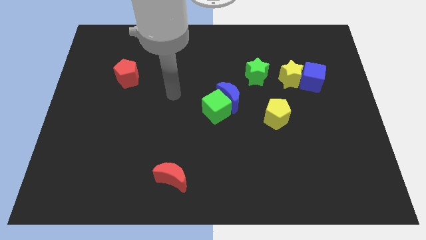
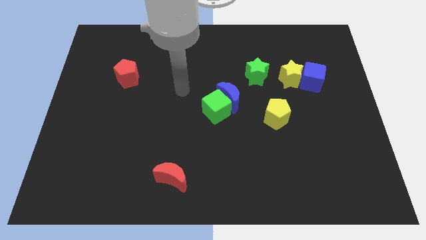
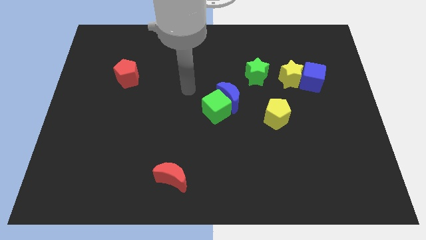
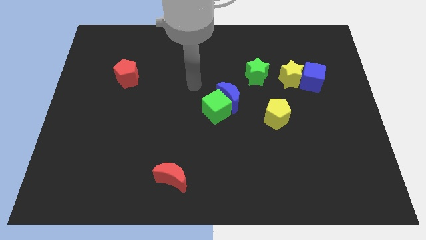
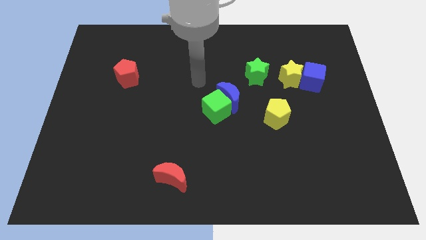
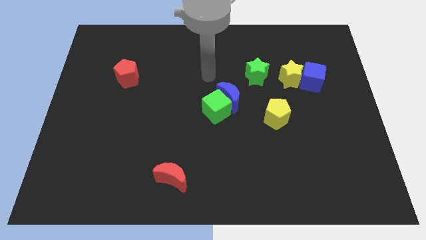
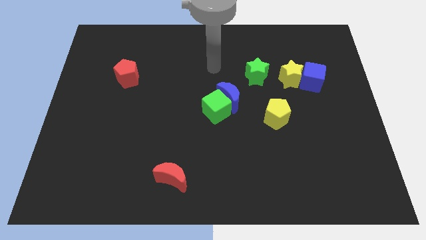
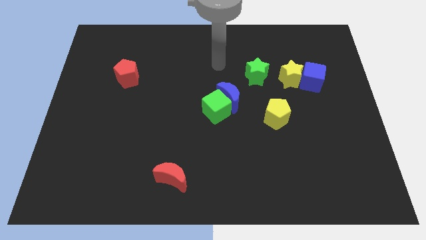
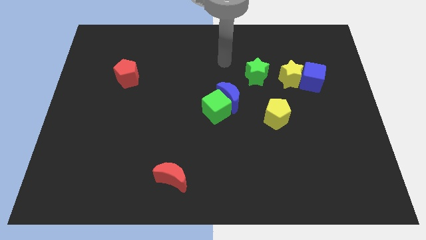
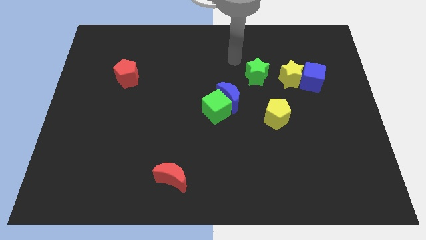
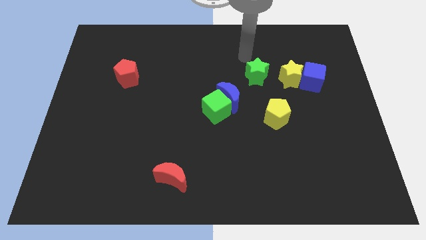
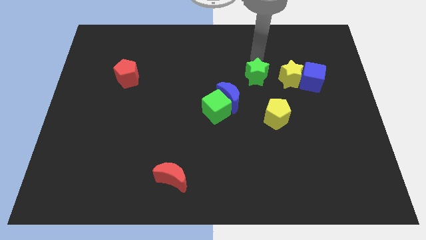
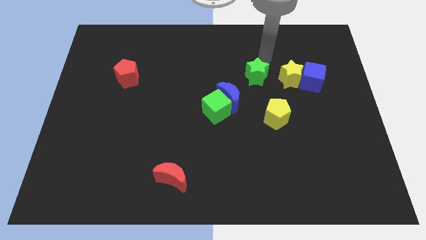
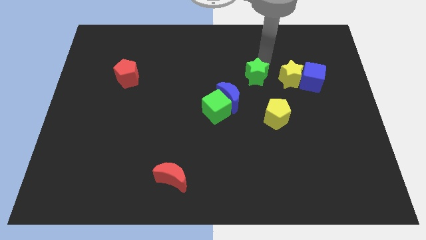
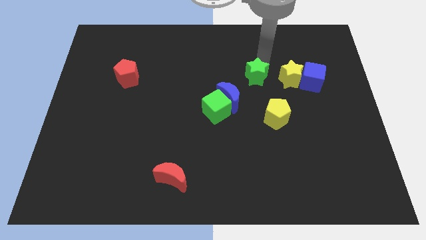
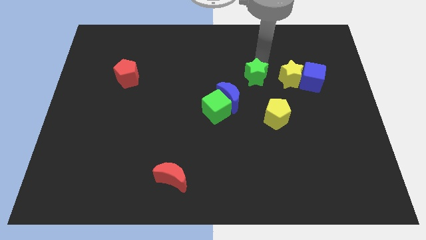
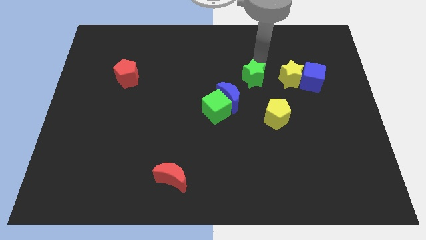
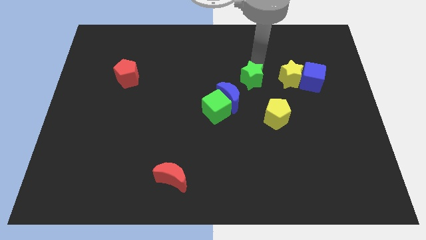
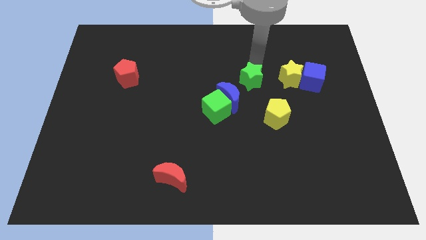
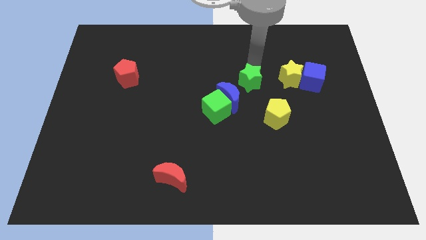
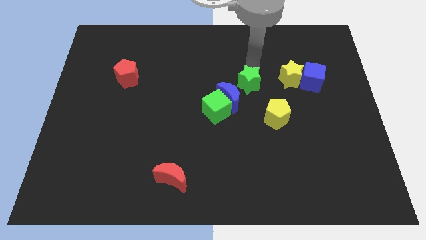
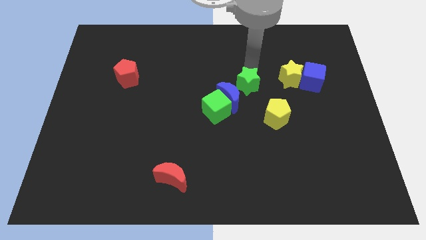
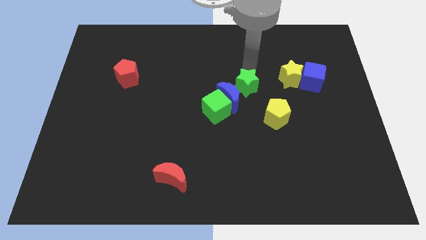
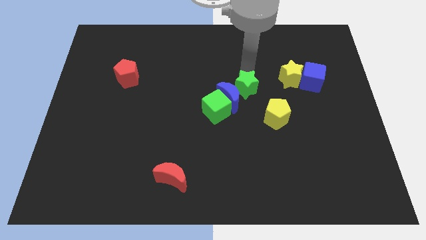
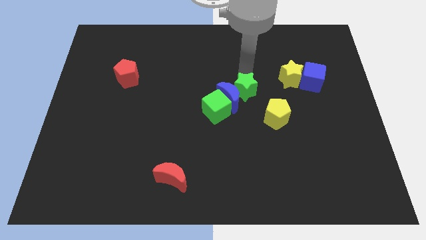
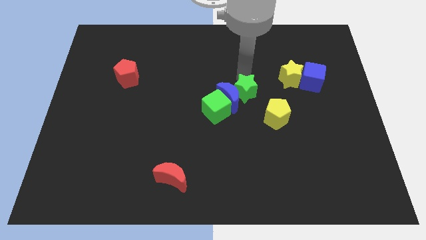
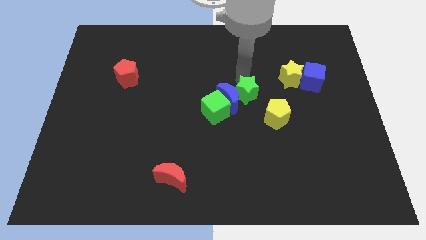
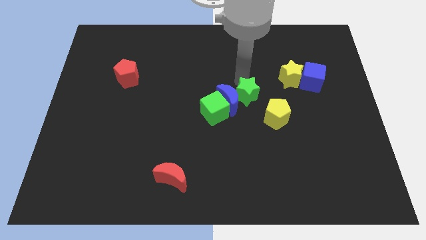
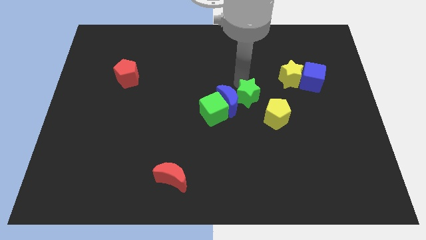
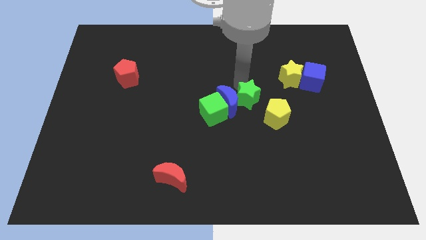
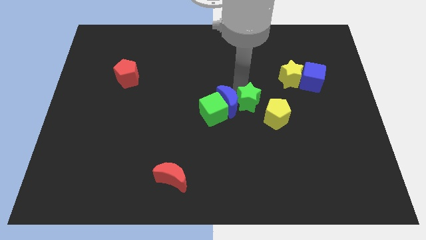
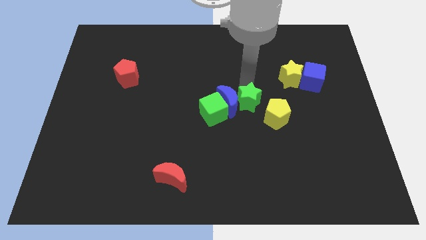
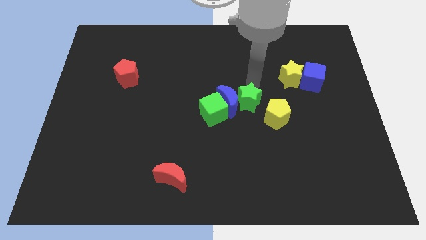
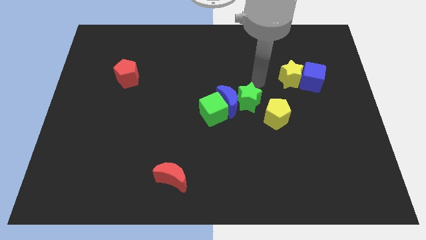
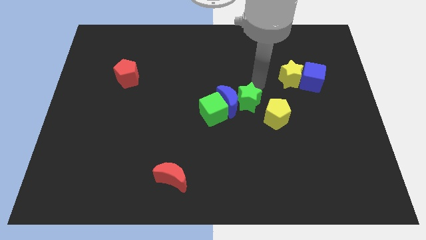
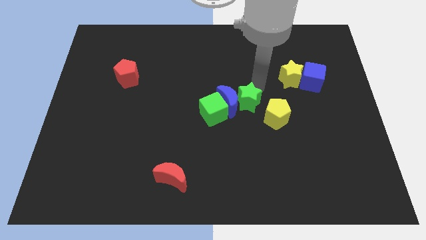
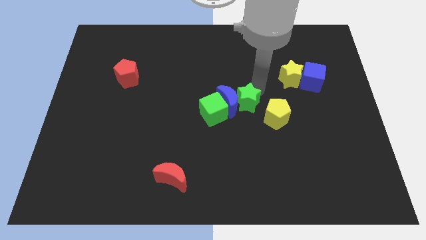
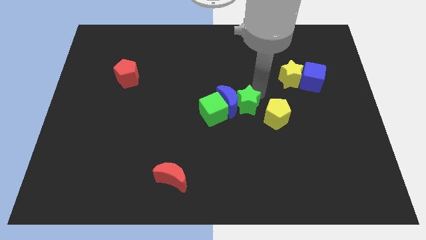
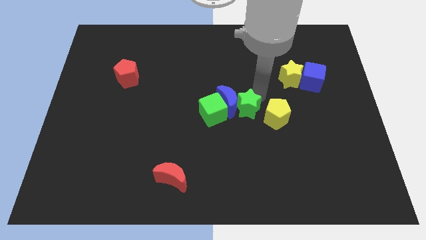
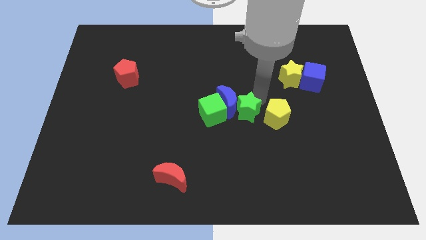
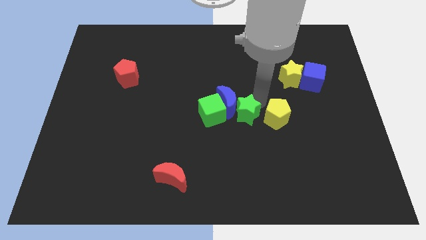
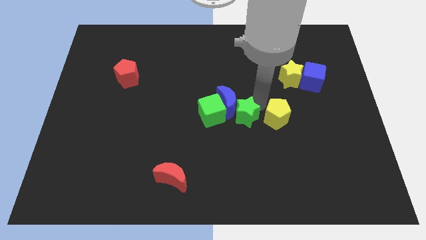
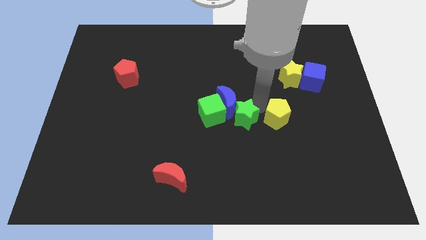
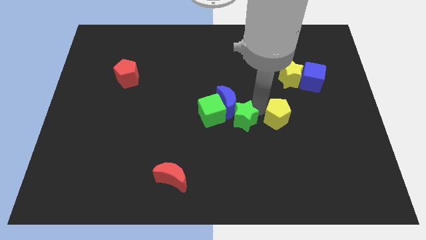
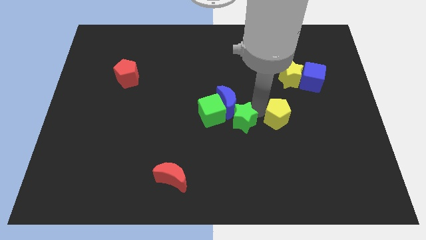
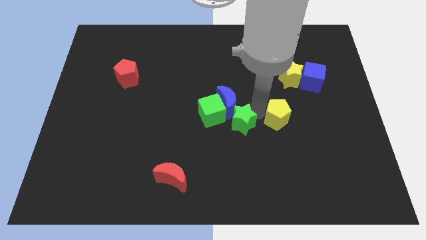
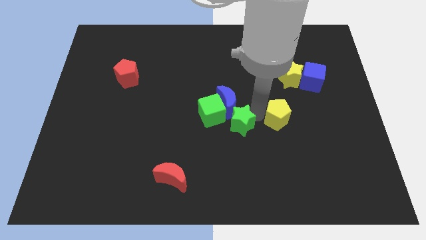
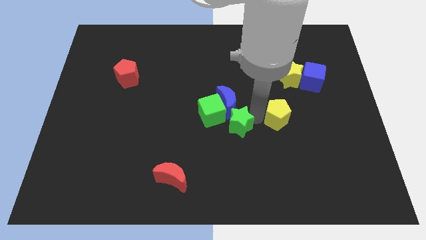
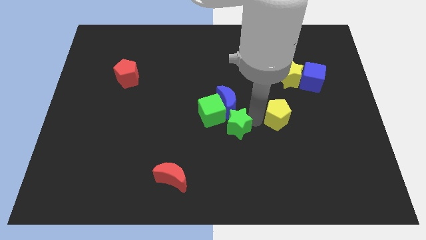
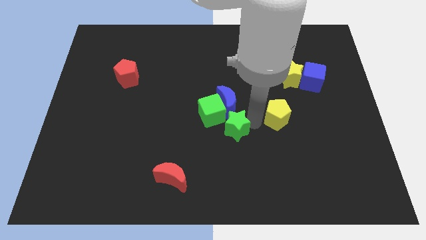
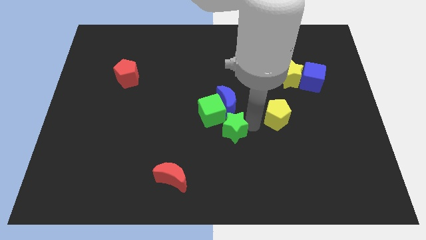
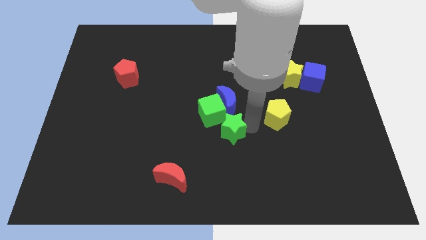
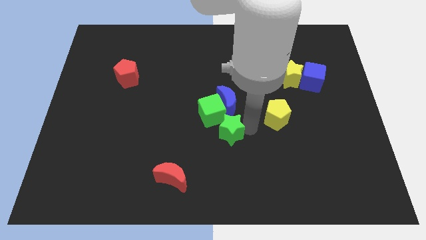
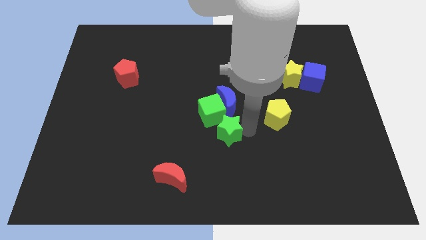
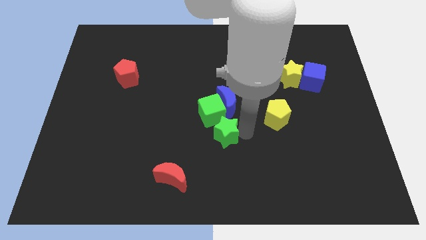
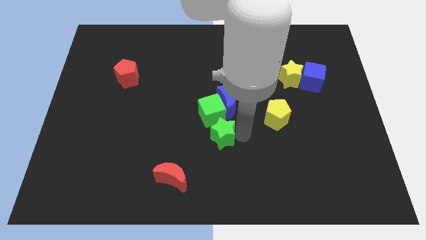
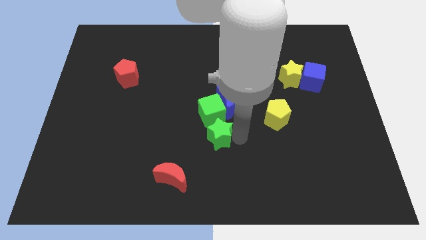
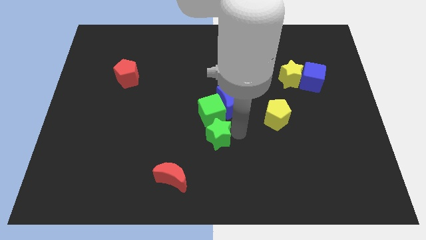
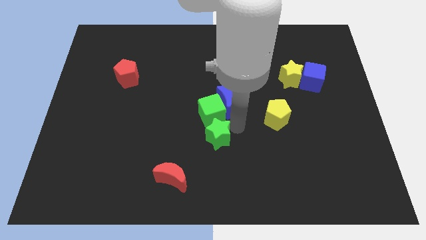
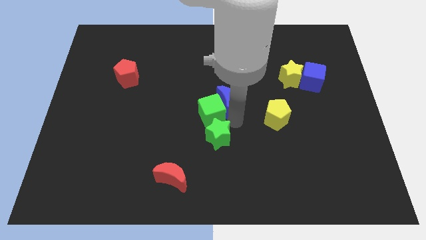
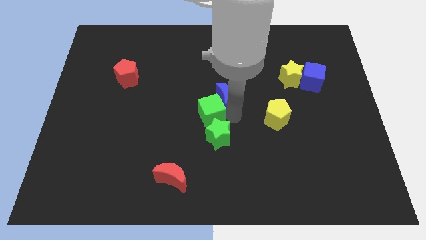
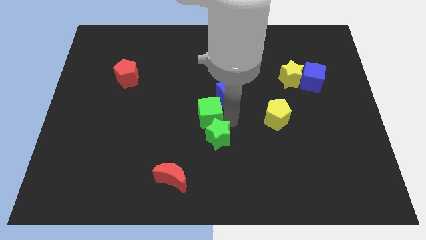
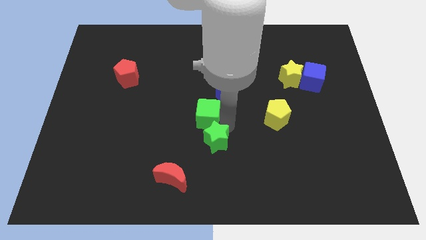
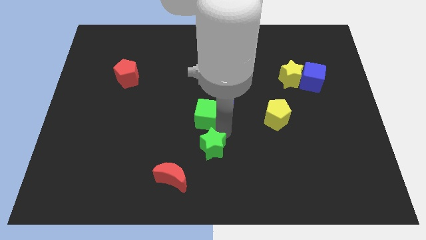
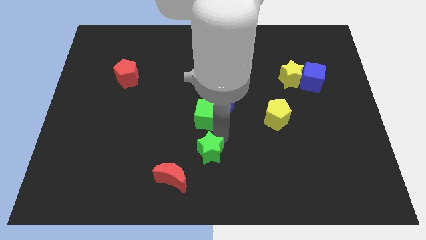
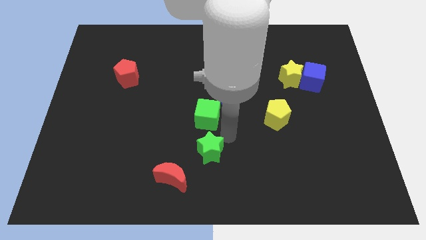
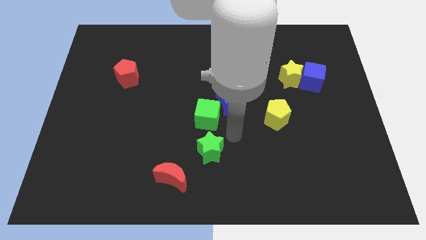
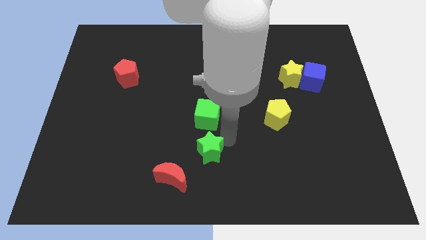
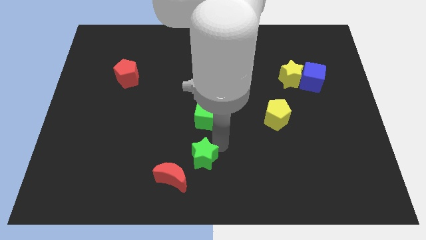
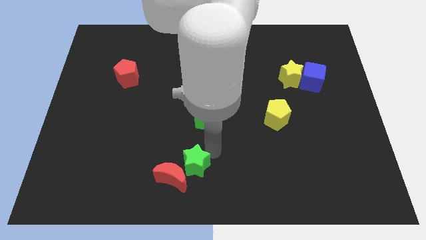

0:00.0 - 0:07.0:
slide the green star close to the red moon

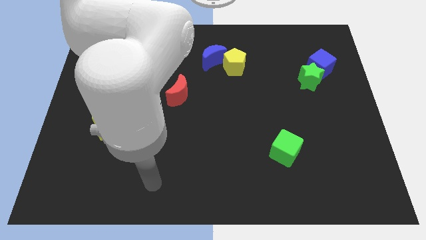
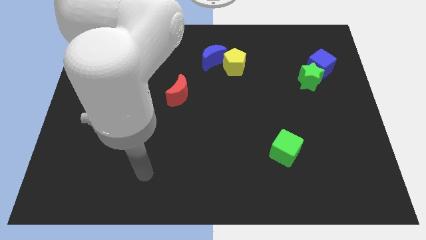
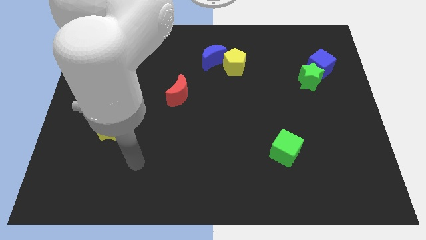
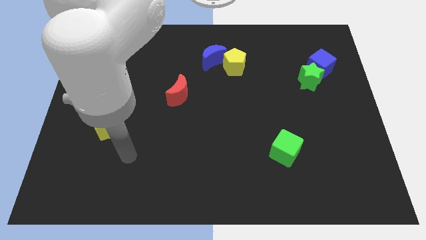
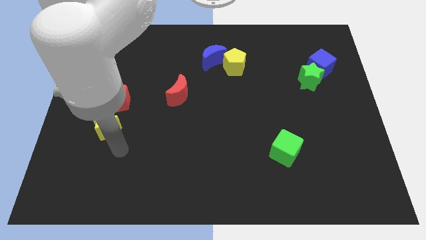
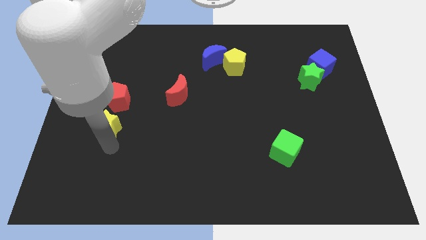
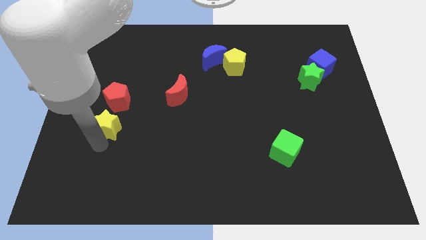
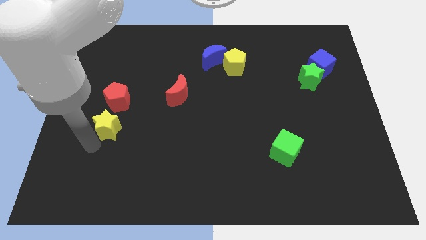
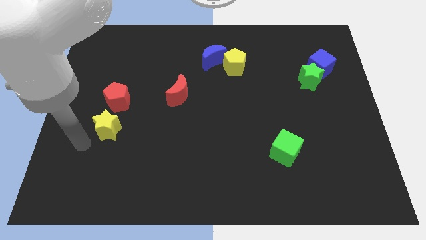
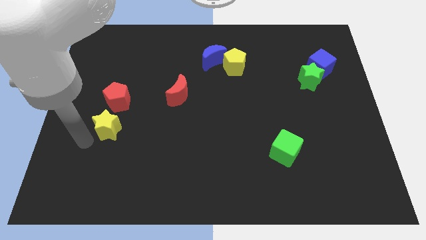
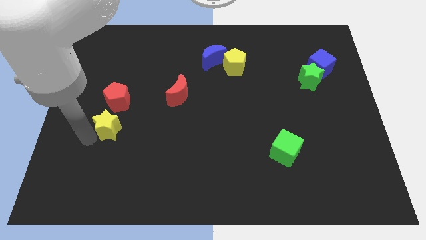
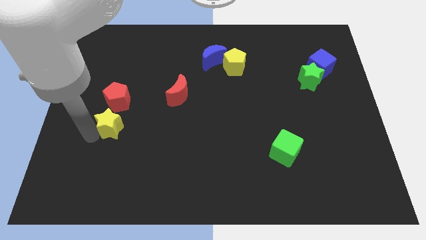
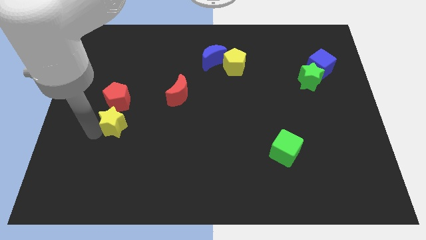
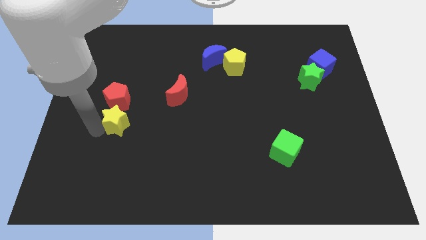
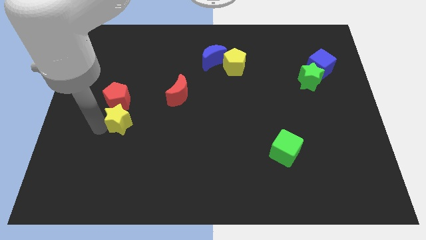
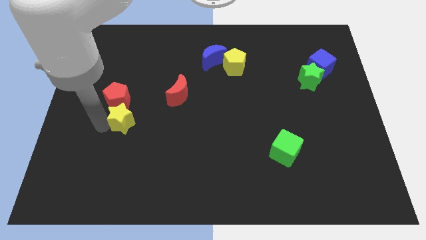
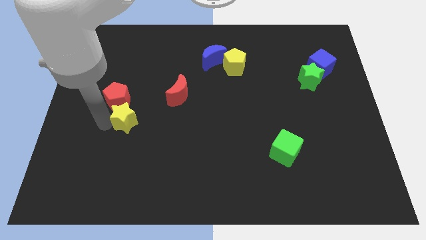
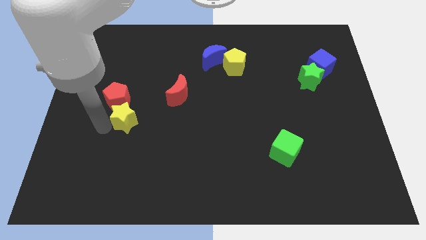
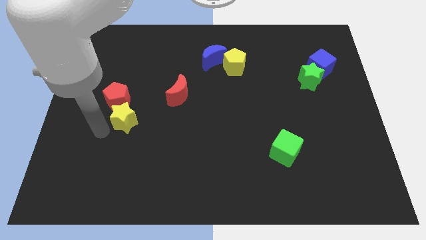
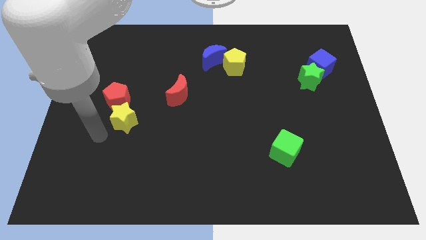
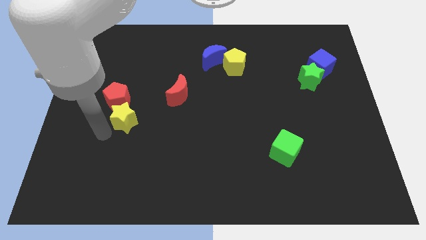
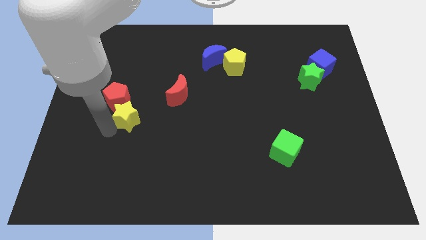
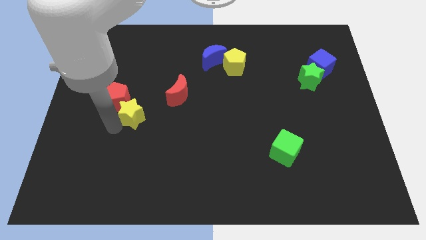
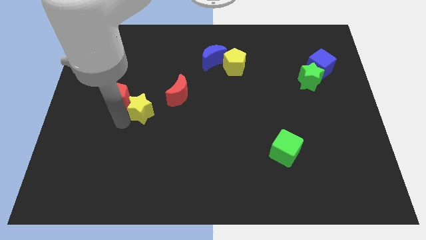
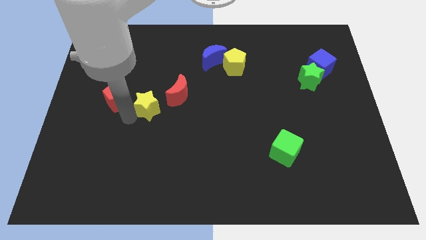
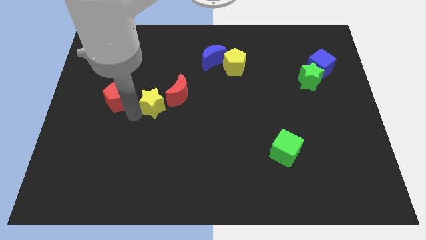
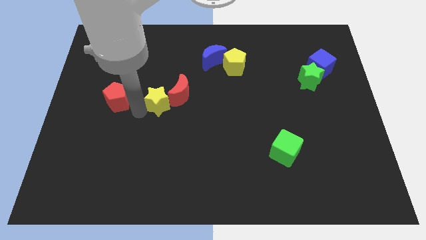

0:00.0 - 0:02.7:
slide the yellow star next to the red moon
